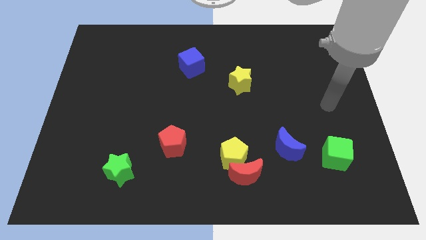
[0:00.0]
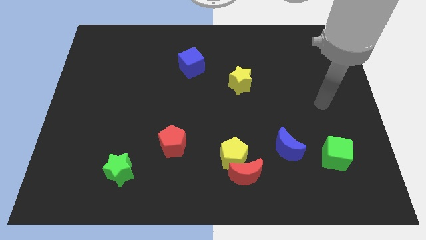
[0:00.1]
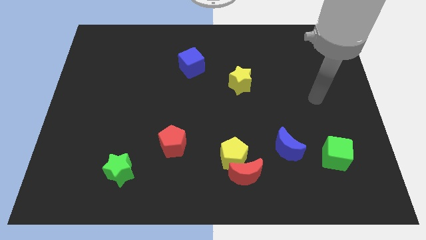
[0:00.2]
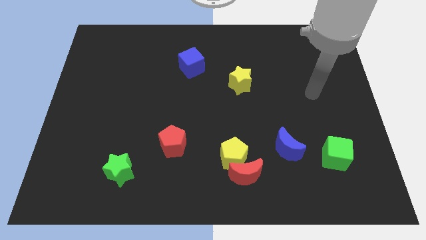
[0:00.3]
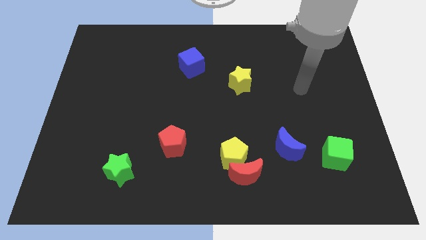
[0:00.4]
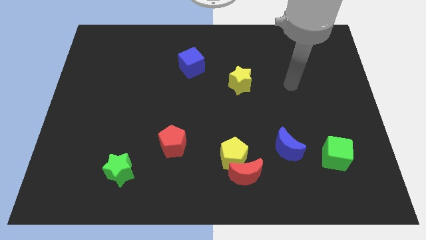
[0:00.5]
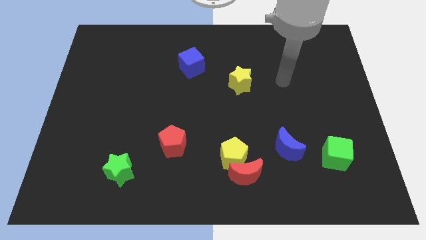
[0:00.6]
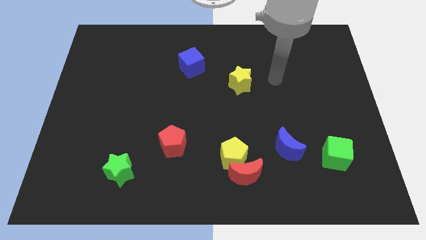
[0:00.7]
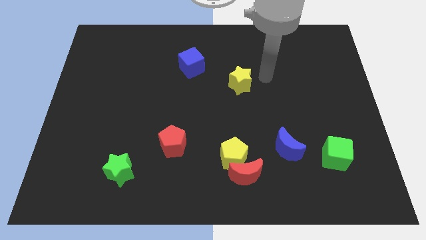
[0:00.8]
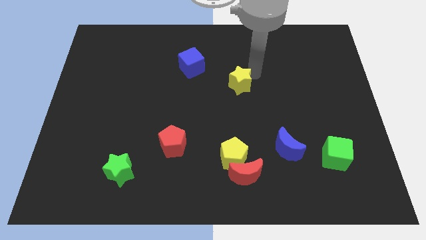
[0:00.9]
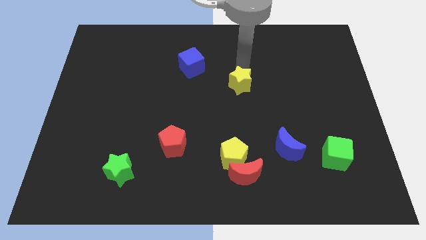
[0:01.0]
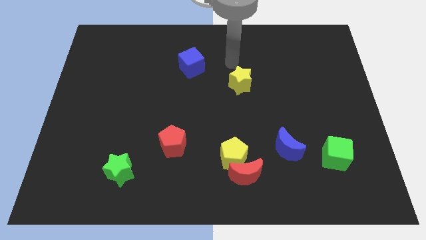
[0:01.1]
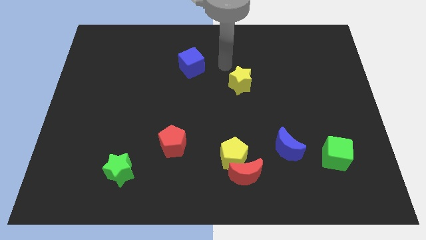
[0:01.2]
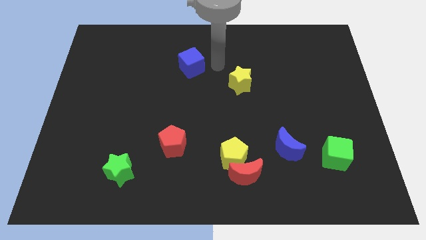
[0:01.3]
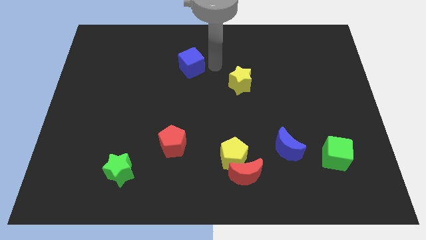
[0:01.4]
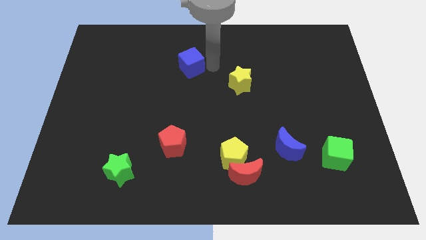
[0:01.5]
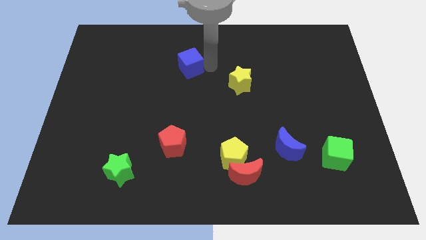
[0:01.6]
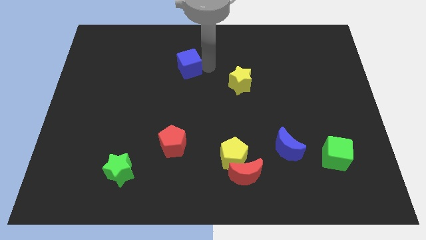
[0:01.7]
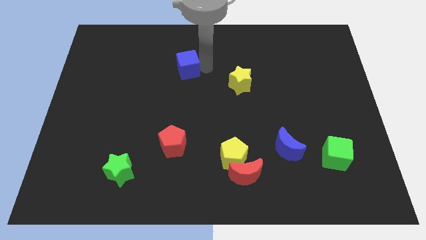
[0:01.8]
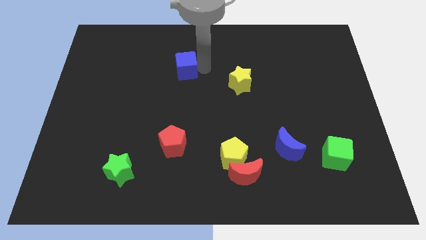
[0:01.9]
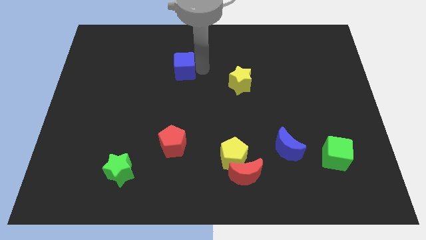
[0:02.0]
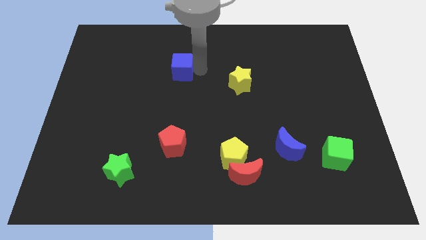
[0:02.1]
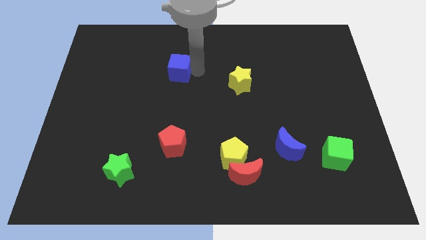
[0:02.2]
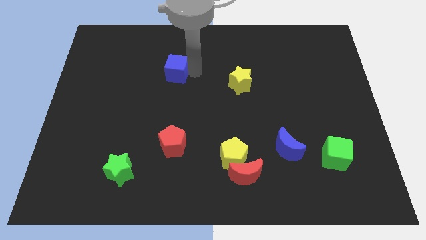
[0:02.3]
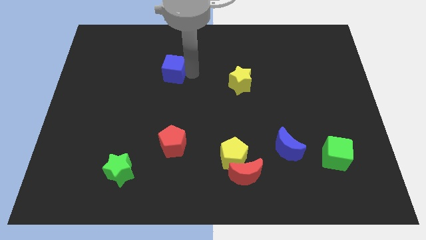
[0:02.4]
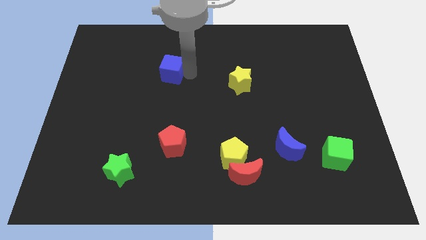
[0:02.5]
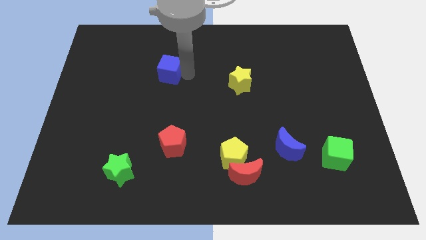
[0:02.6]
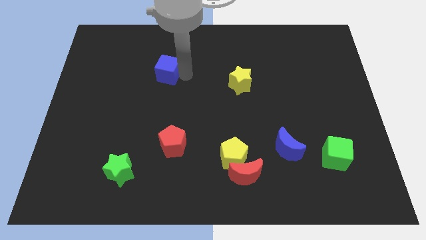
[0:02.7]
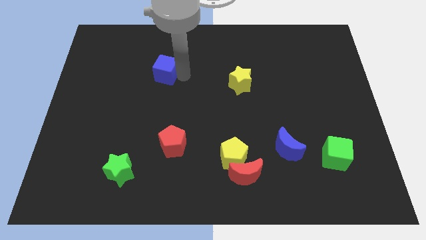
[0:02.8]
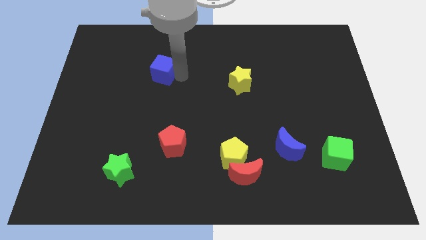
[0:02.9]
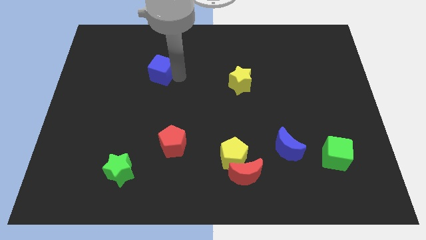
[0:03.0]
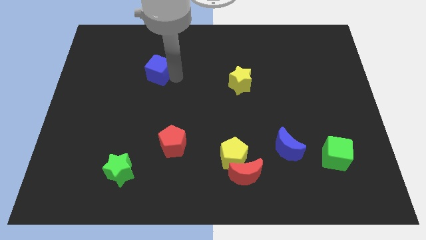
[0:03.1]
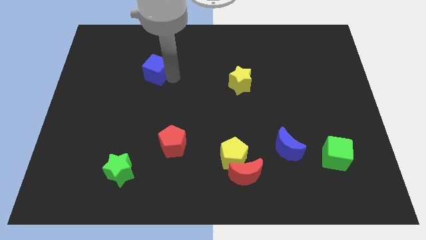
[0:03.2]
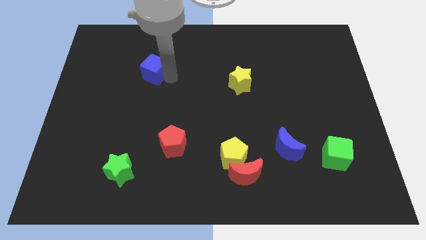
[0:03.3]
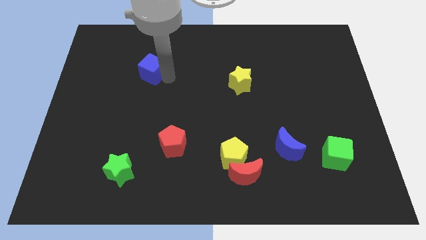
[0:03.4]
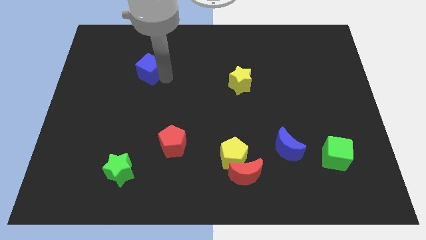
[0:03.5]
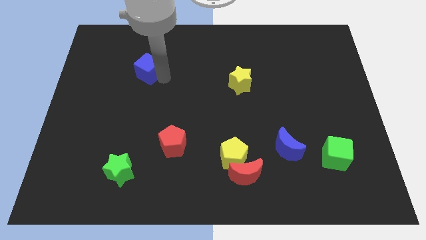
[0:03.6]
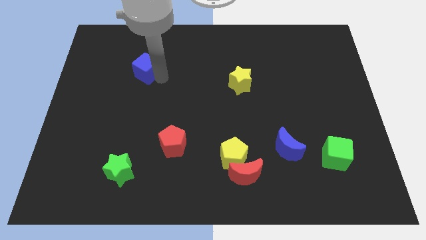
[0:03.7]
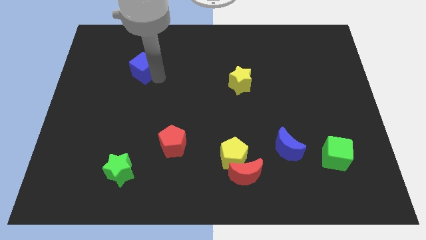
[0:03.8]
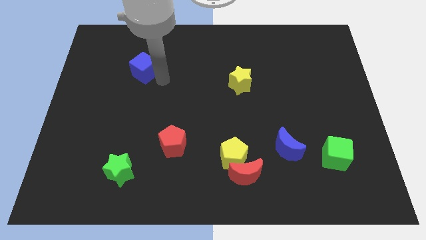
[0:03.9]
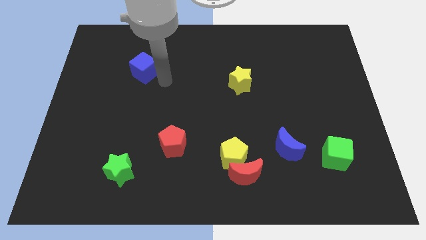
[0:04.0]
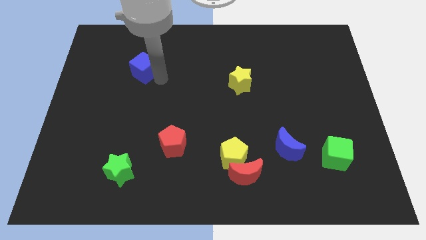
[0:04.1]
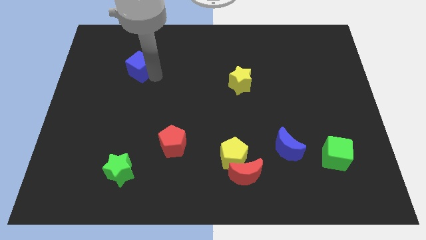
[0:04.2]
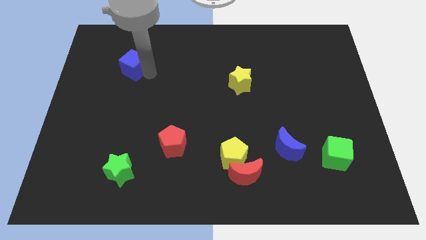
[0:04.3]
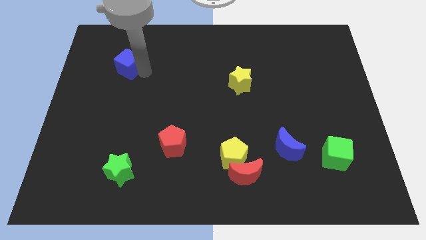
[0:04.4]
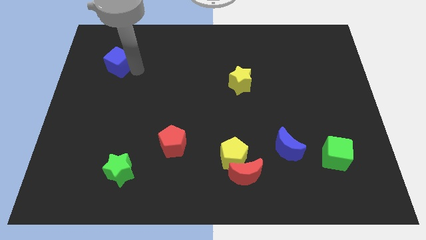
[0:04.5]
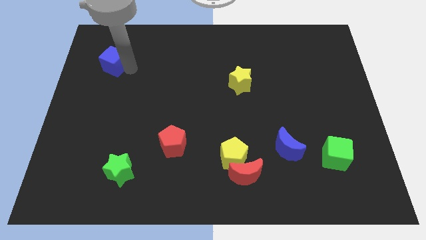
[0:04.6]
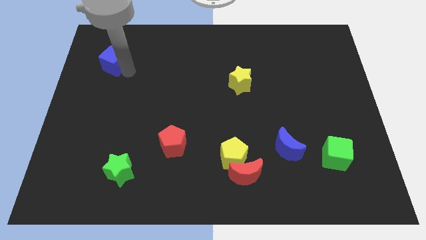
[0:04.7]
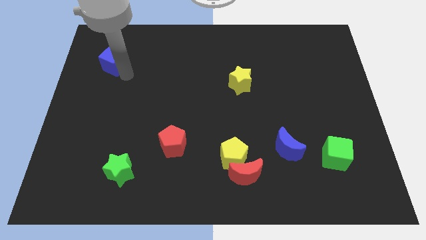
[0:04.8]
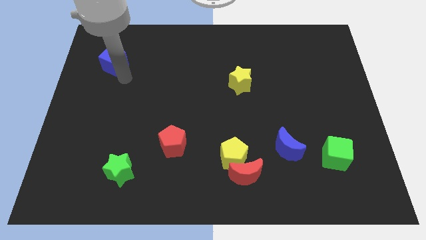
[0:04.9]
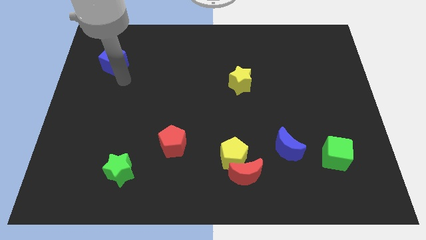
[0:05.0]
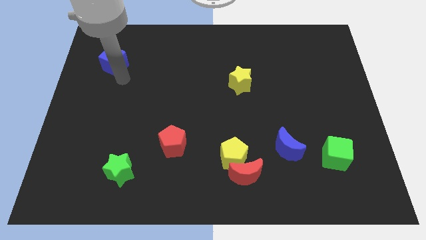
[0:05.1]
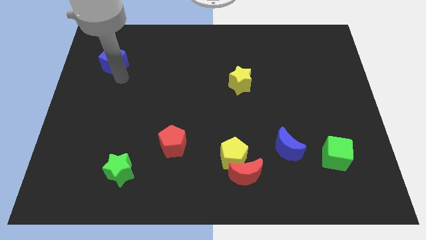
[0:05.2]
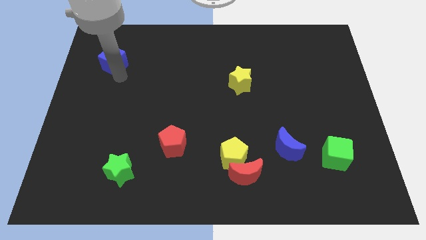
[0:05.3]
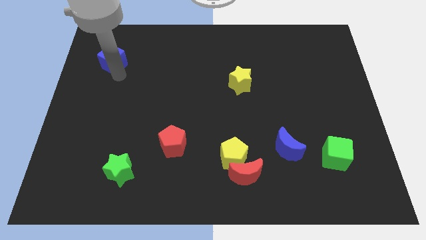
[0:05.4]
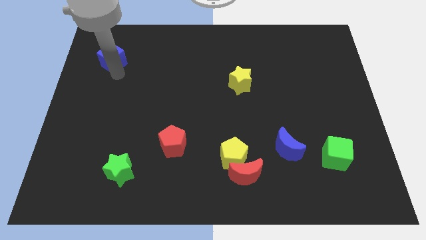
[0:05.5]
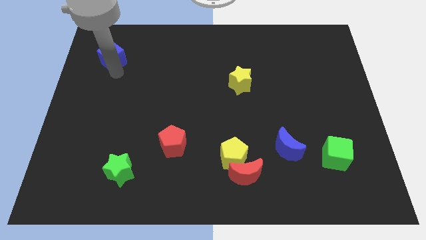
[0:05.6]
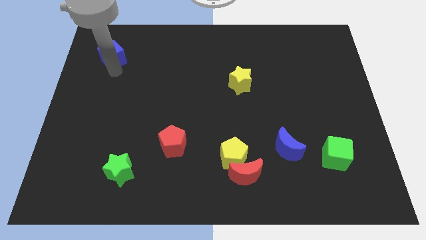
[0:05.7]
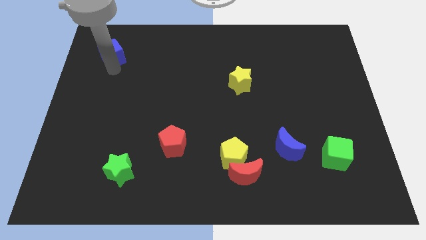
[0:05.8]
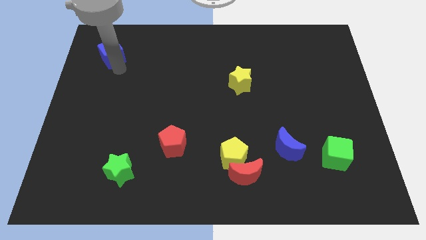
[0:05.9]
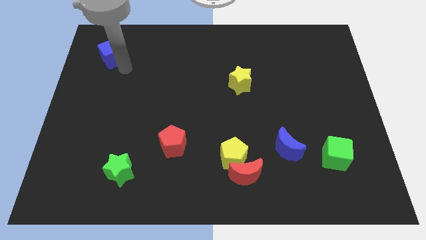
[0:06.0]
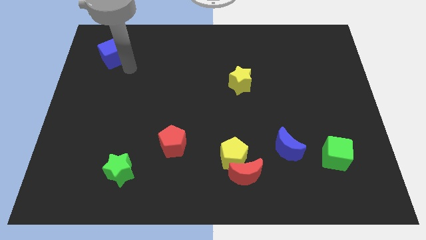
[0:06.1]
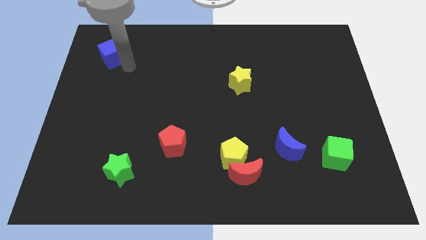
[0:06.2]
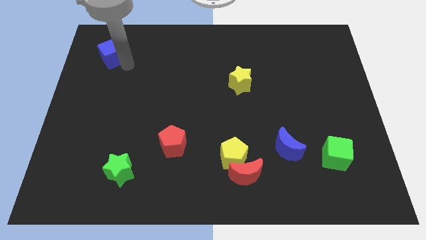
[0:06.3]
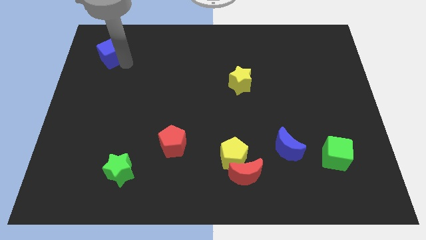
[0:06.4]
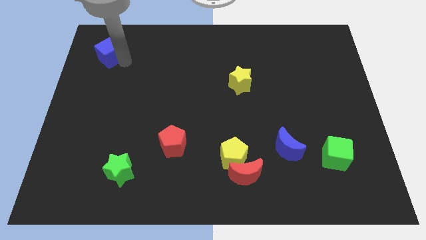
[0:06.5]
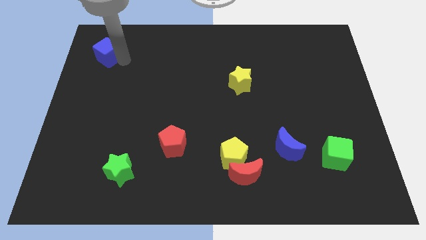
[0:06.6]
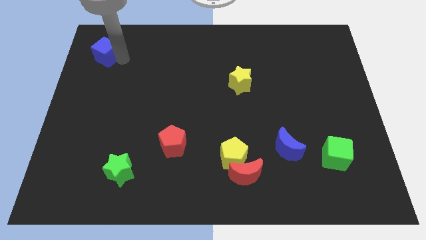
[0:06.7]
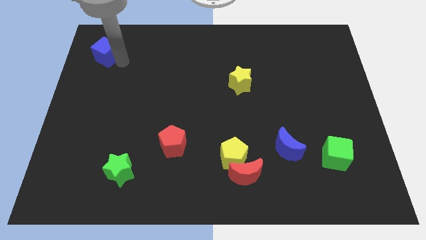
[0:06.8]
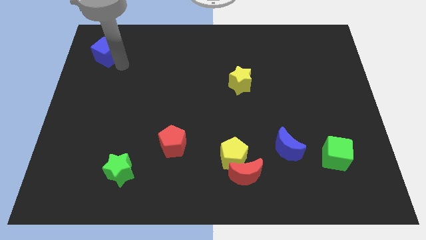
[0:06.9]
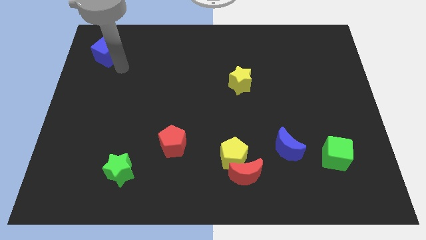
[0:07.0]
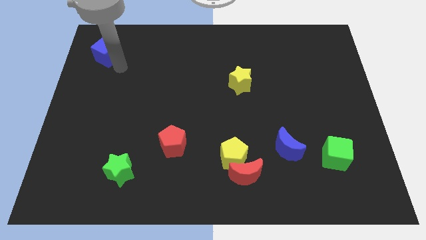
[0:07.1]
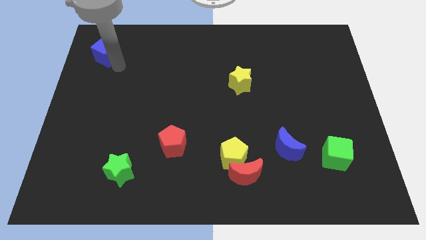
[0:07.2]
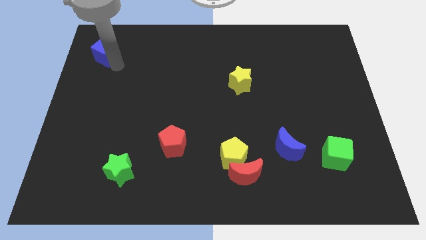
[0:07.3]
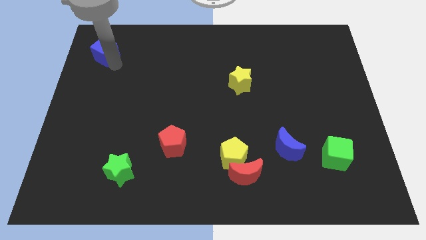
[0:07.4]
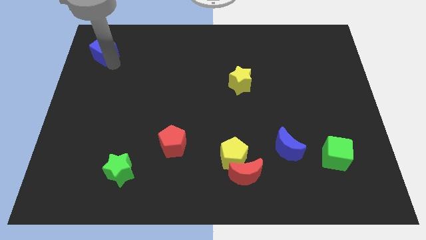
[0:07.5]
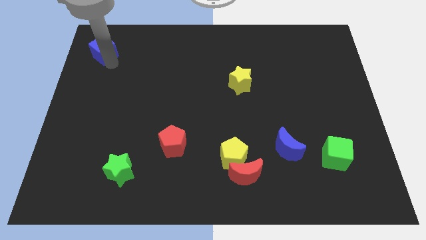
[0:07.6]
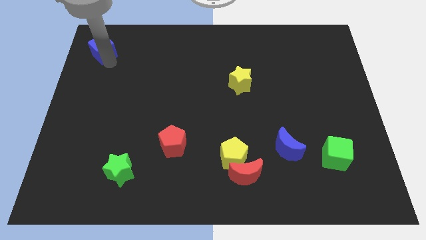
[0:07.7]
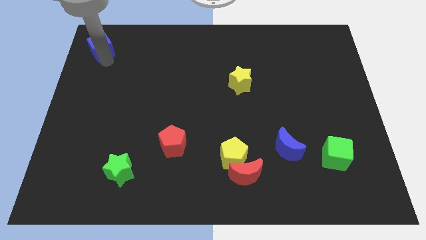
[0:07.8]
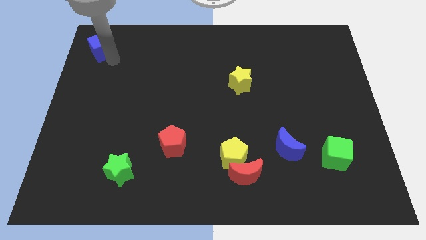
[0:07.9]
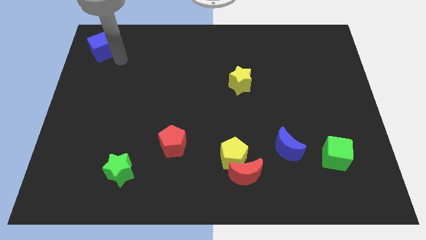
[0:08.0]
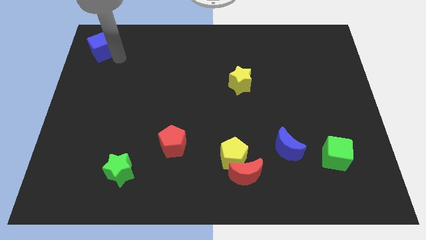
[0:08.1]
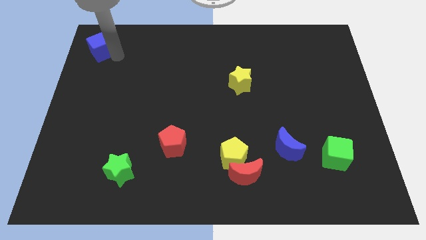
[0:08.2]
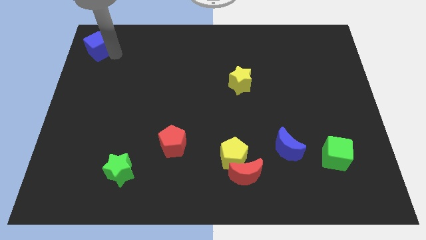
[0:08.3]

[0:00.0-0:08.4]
move the blue cube to the top left of the board
